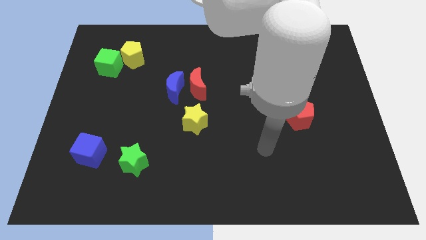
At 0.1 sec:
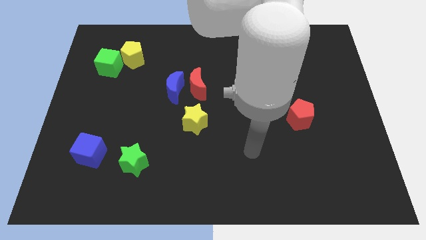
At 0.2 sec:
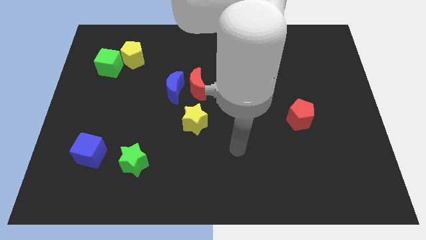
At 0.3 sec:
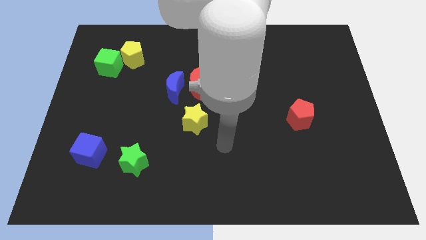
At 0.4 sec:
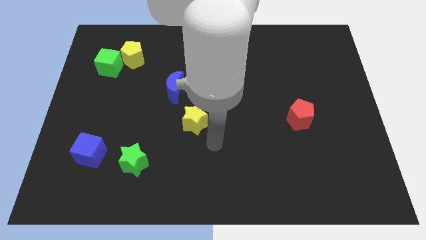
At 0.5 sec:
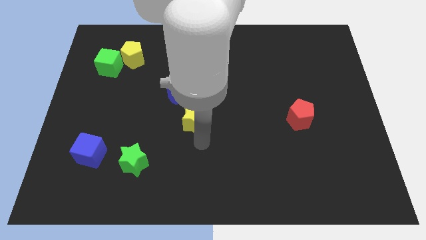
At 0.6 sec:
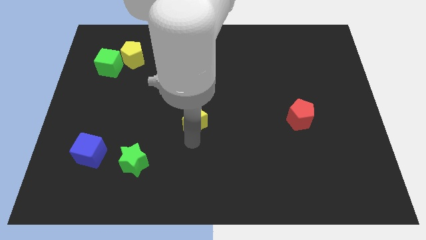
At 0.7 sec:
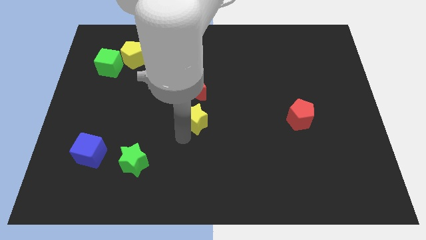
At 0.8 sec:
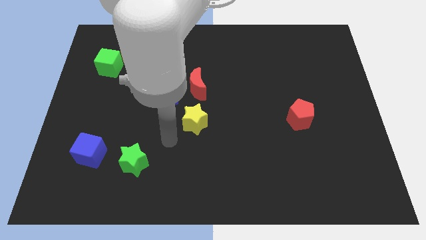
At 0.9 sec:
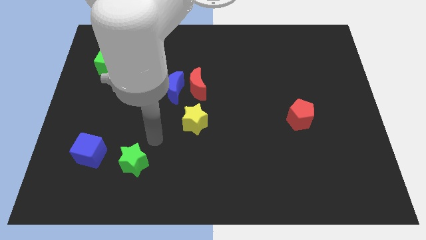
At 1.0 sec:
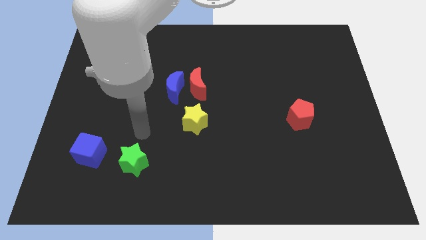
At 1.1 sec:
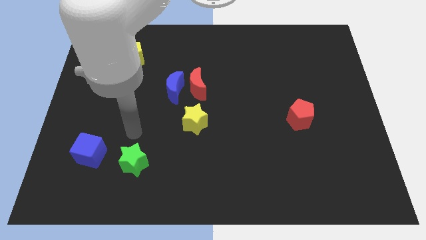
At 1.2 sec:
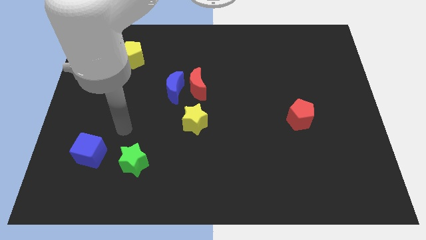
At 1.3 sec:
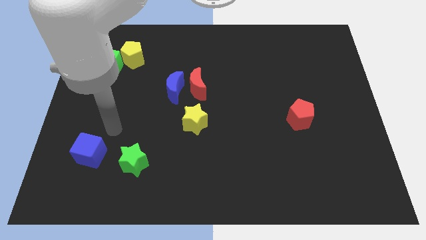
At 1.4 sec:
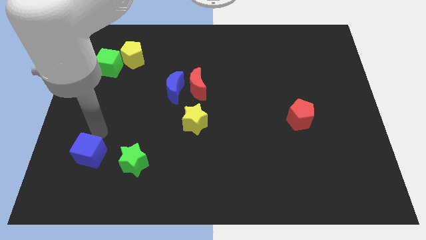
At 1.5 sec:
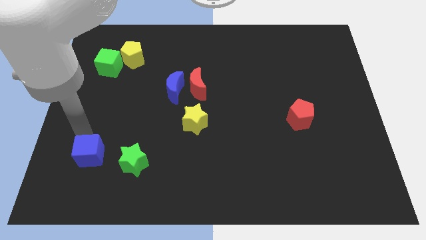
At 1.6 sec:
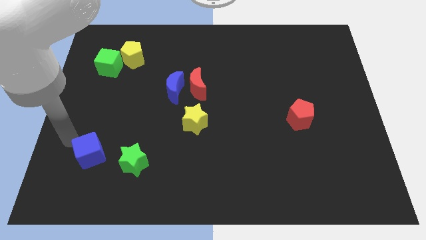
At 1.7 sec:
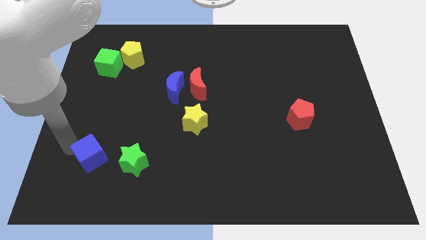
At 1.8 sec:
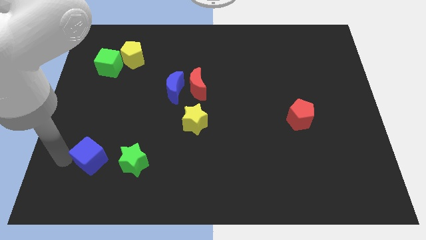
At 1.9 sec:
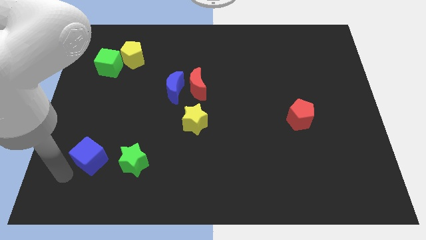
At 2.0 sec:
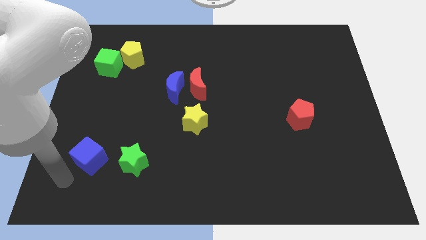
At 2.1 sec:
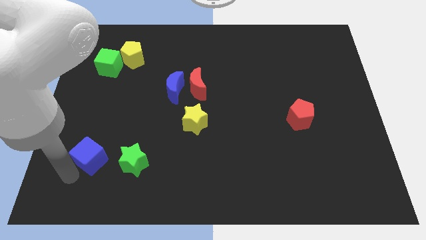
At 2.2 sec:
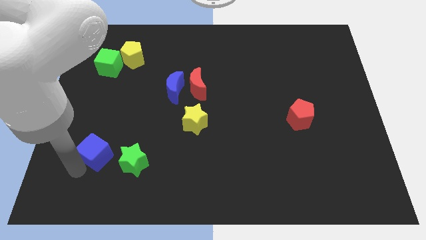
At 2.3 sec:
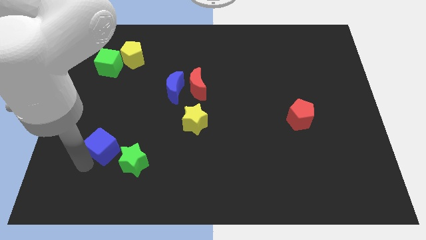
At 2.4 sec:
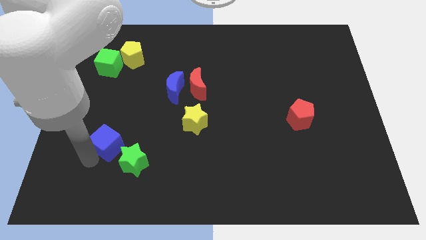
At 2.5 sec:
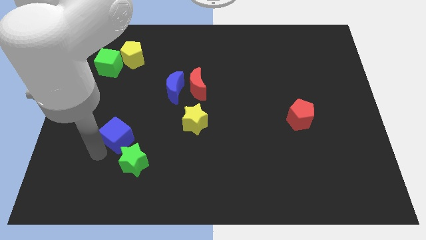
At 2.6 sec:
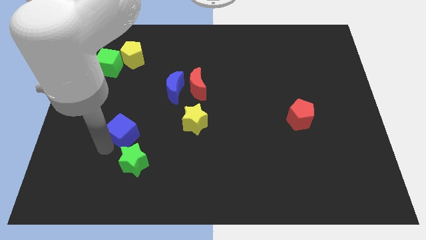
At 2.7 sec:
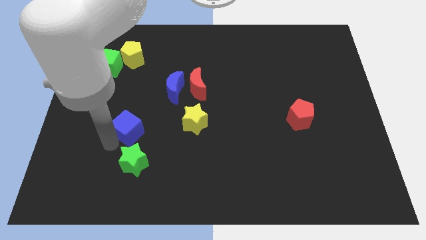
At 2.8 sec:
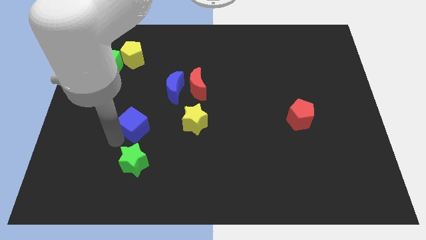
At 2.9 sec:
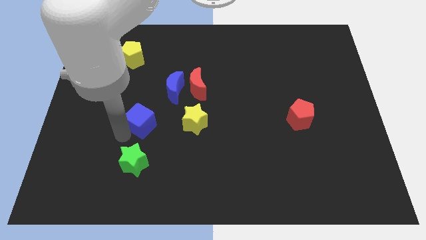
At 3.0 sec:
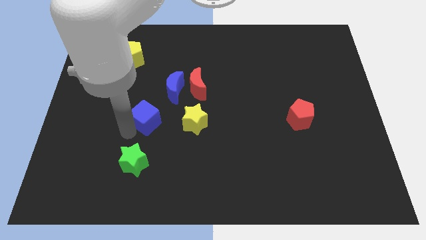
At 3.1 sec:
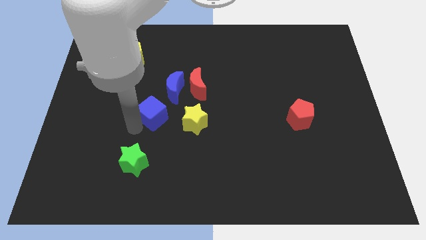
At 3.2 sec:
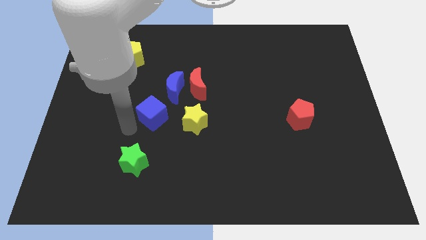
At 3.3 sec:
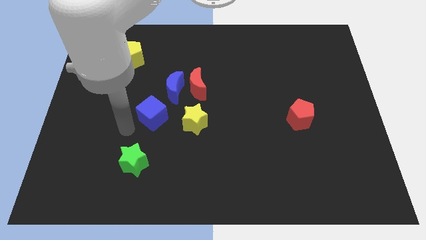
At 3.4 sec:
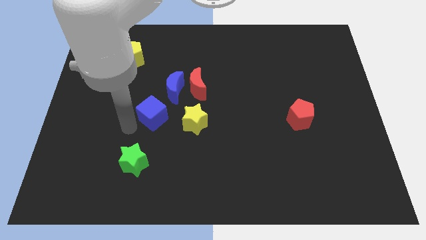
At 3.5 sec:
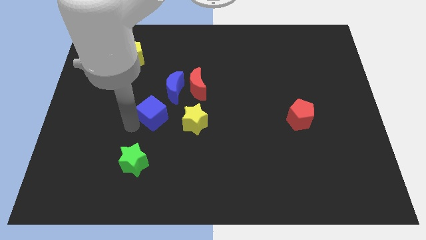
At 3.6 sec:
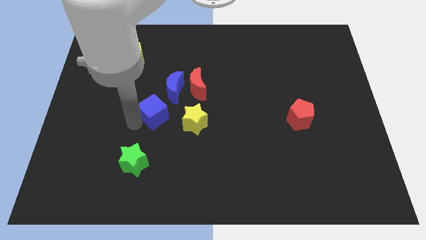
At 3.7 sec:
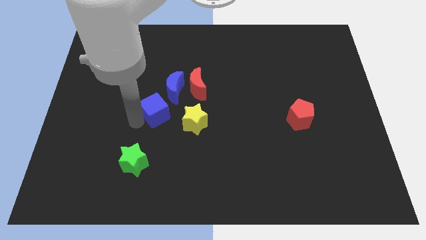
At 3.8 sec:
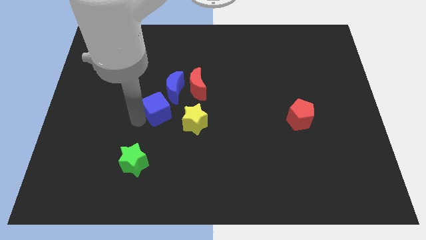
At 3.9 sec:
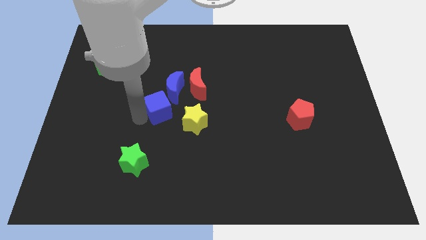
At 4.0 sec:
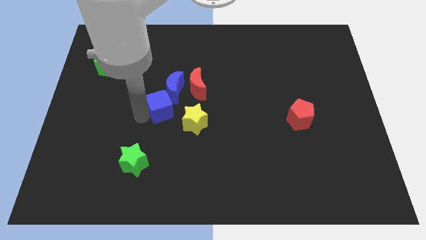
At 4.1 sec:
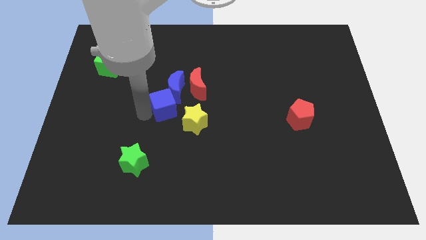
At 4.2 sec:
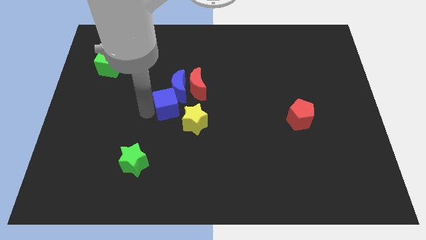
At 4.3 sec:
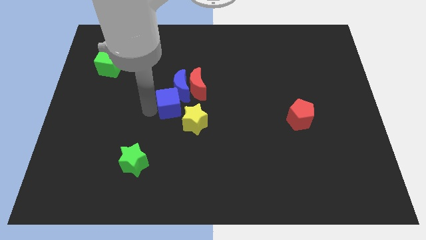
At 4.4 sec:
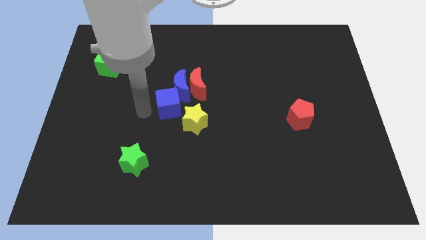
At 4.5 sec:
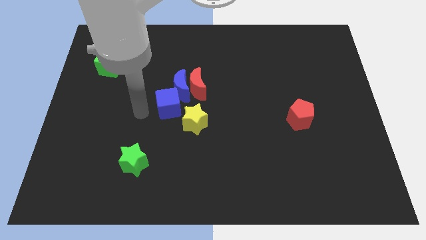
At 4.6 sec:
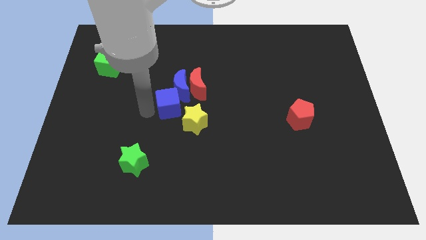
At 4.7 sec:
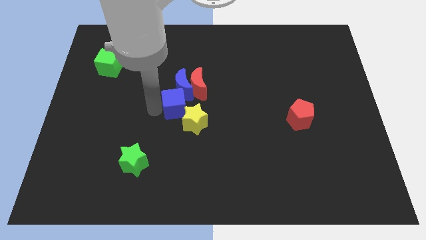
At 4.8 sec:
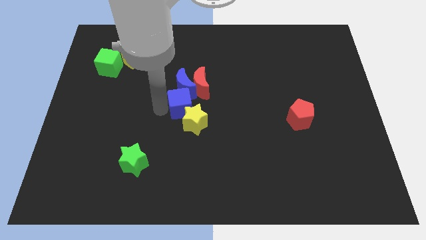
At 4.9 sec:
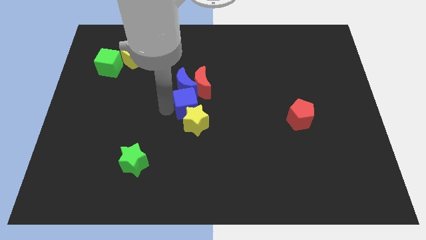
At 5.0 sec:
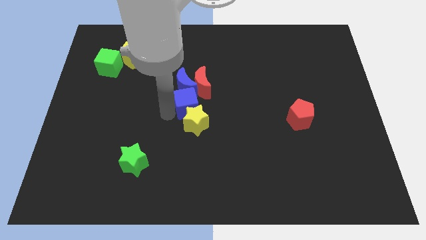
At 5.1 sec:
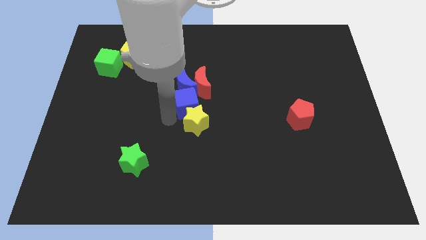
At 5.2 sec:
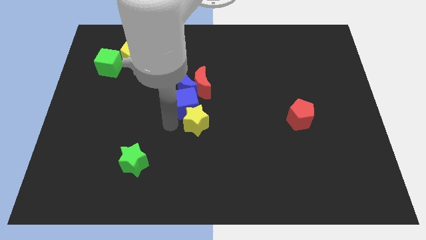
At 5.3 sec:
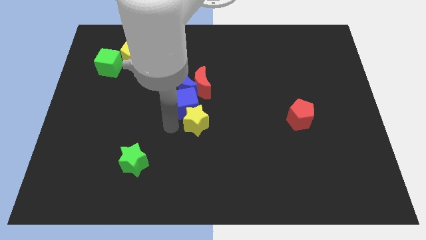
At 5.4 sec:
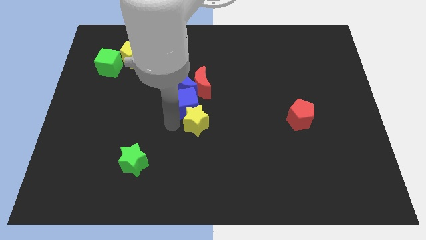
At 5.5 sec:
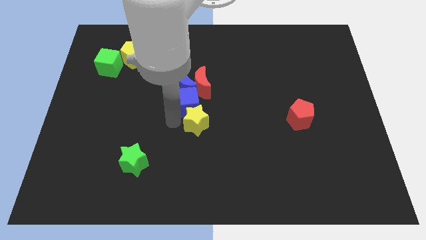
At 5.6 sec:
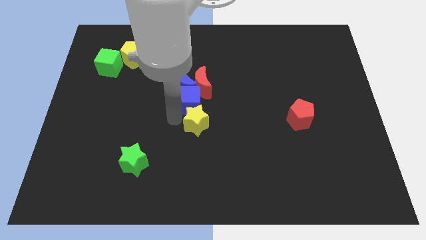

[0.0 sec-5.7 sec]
slide the blue cube to the red moon

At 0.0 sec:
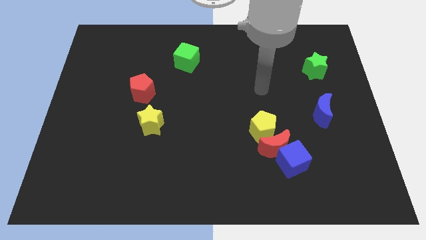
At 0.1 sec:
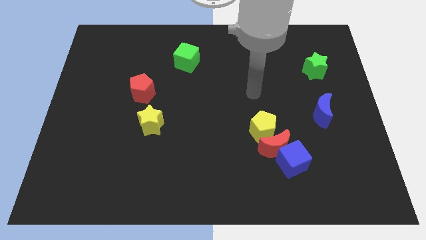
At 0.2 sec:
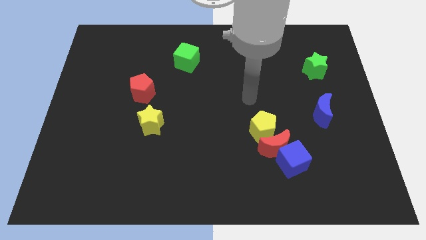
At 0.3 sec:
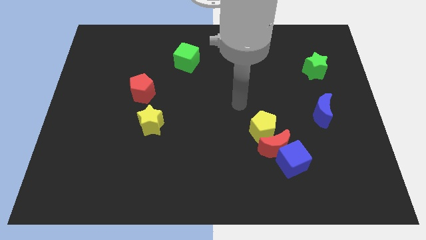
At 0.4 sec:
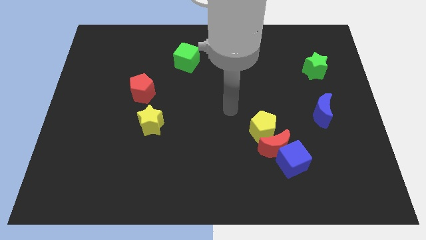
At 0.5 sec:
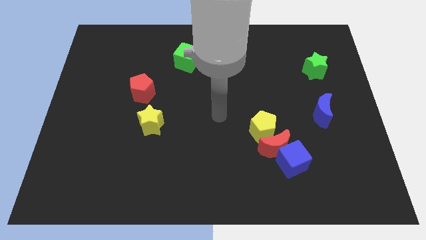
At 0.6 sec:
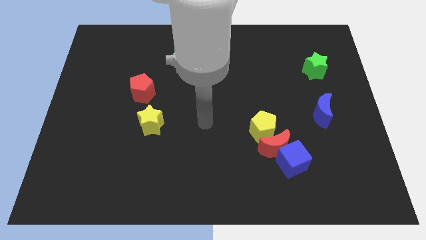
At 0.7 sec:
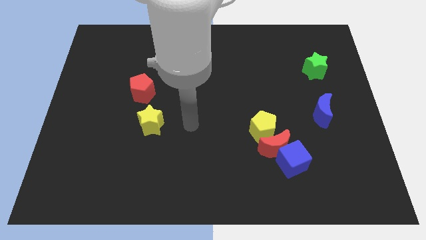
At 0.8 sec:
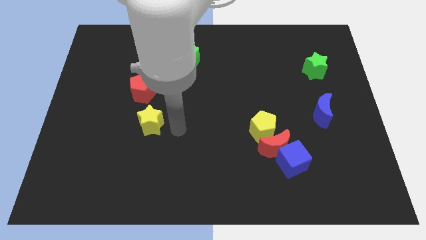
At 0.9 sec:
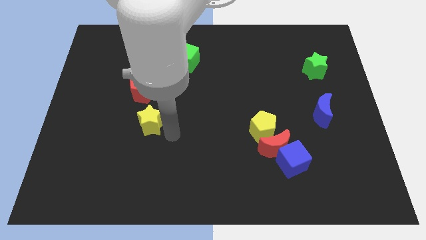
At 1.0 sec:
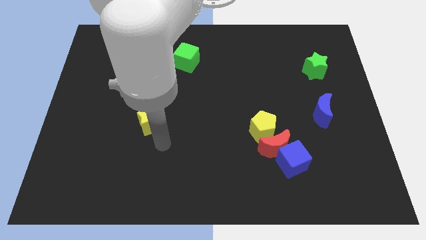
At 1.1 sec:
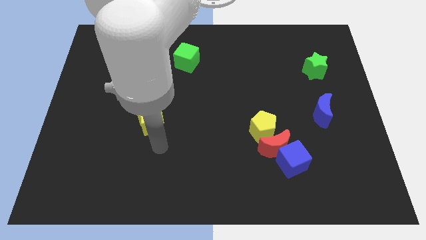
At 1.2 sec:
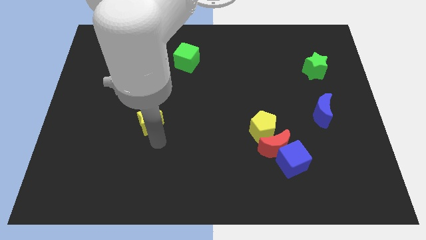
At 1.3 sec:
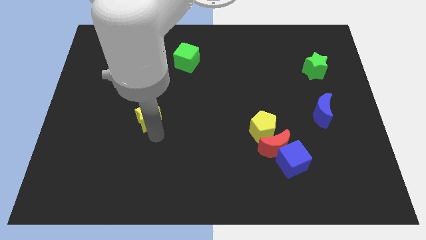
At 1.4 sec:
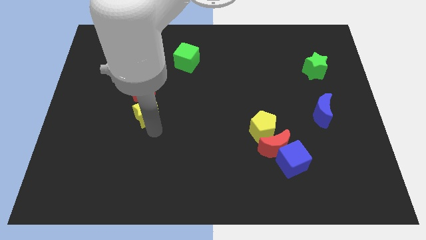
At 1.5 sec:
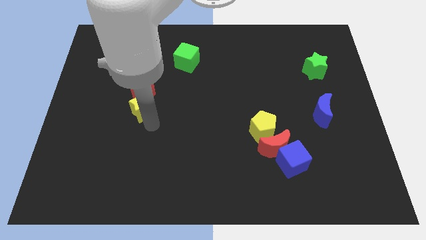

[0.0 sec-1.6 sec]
slide the yellow star close to the red pentagon

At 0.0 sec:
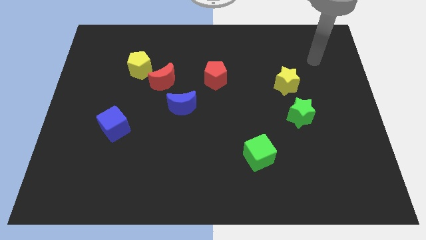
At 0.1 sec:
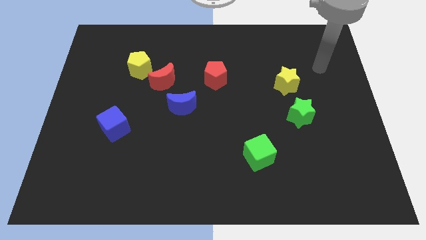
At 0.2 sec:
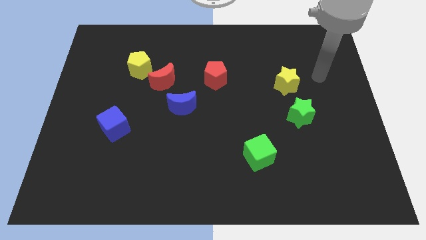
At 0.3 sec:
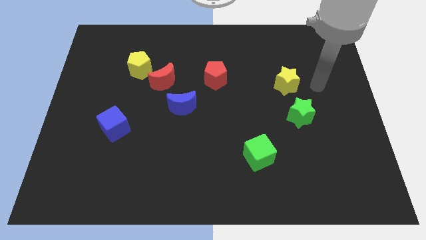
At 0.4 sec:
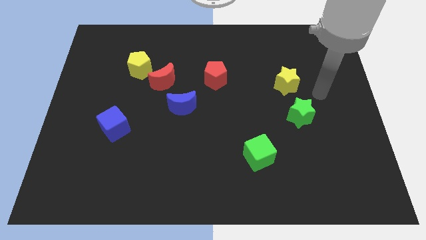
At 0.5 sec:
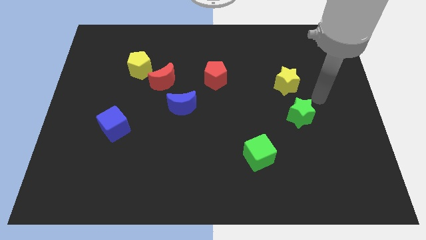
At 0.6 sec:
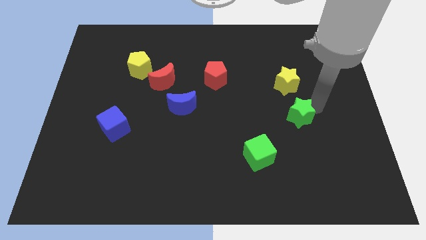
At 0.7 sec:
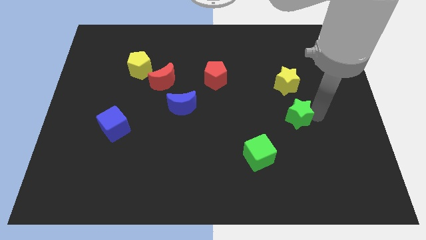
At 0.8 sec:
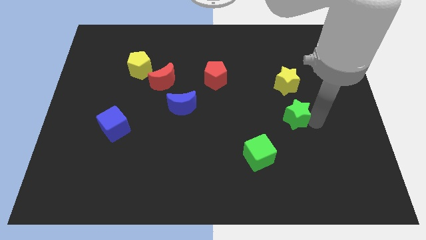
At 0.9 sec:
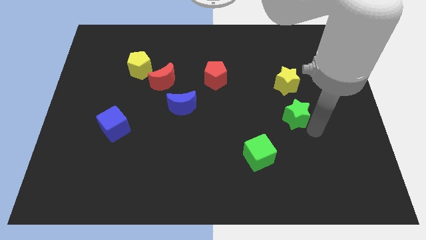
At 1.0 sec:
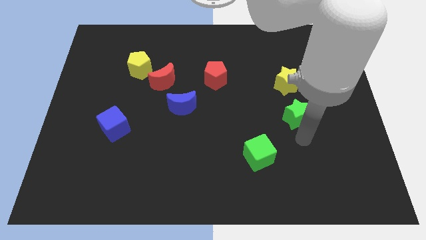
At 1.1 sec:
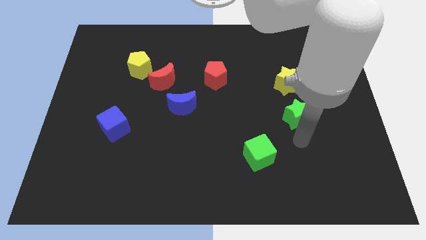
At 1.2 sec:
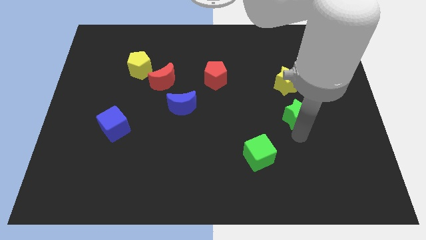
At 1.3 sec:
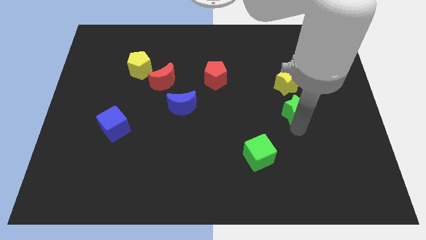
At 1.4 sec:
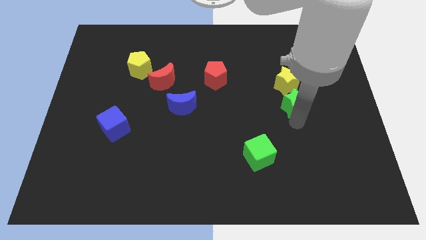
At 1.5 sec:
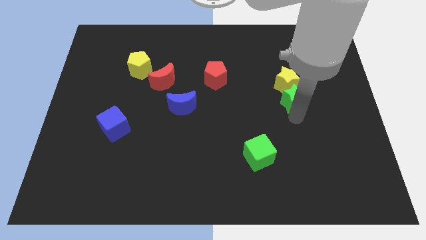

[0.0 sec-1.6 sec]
slide the green star to the yellow star
